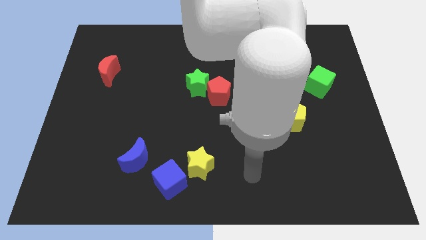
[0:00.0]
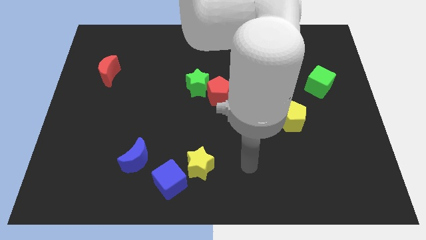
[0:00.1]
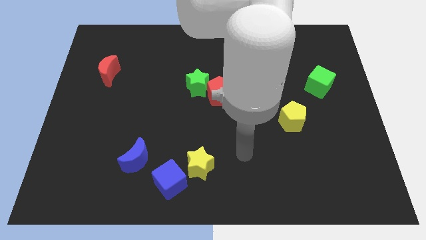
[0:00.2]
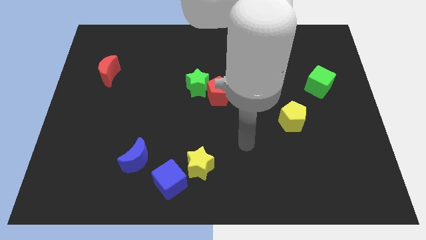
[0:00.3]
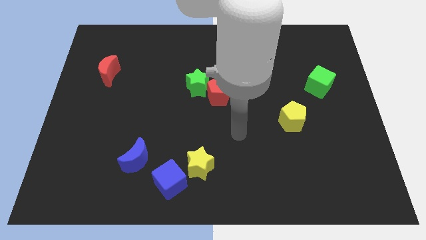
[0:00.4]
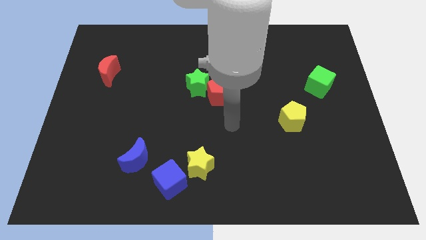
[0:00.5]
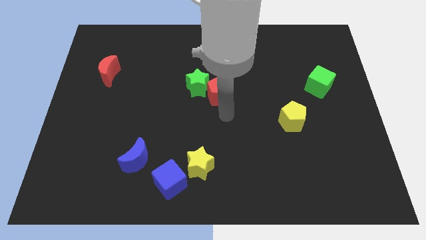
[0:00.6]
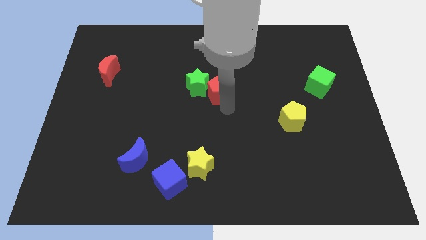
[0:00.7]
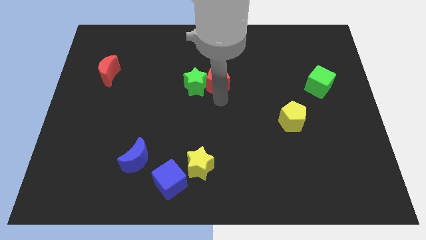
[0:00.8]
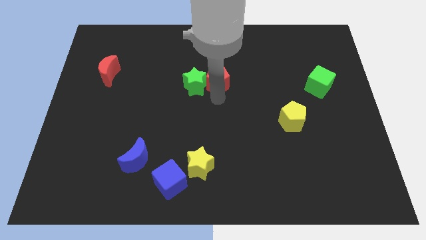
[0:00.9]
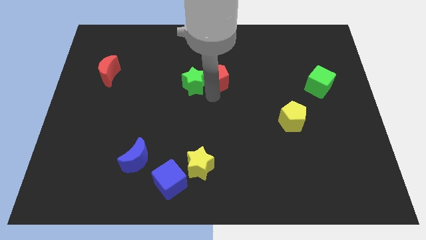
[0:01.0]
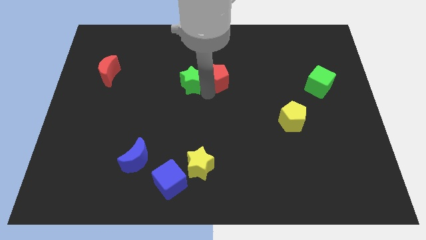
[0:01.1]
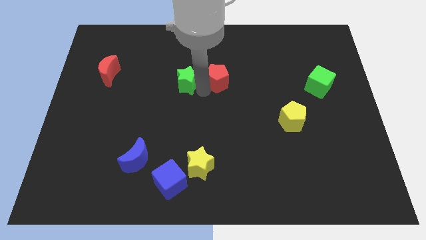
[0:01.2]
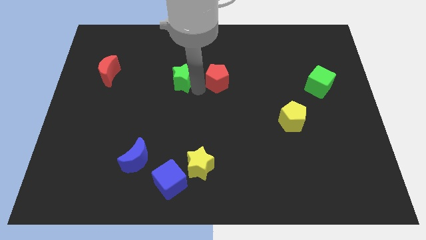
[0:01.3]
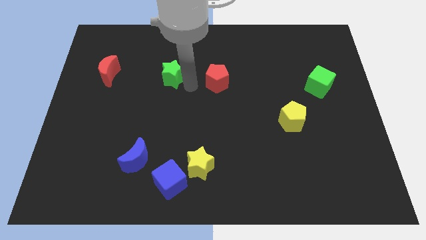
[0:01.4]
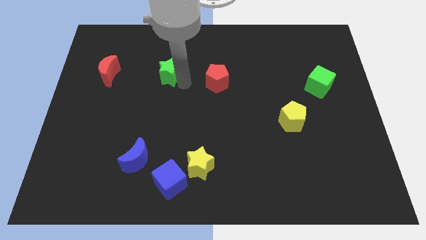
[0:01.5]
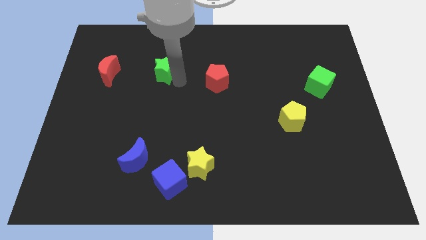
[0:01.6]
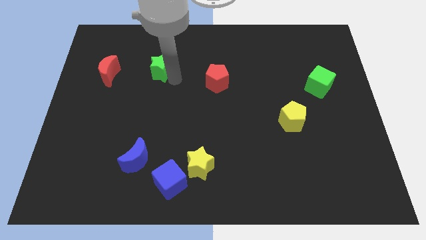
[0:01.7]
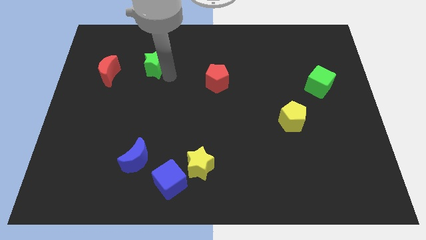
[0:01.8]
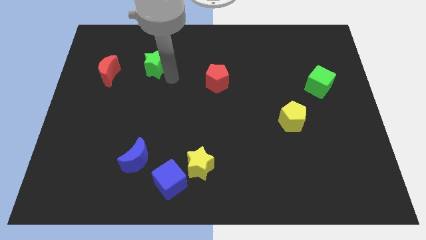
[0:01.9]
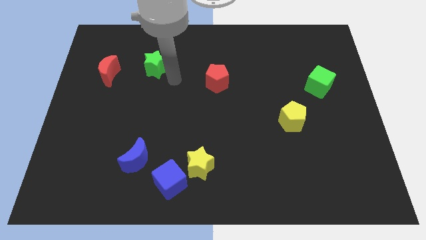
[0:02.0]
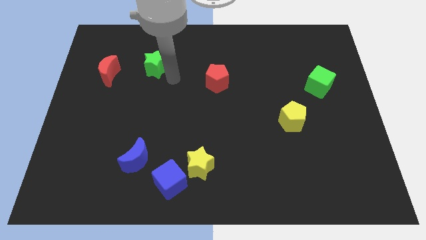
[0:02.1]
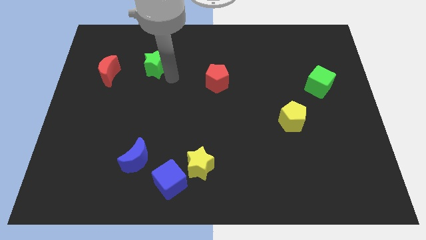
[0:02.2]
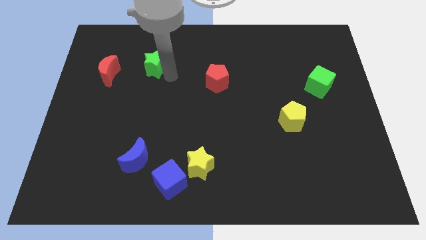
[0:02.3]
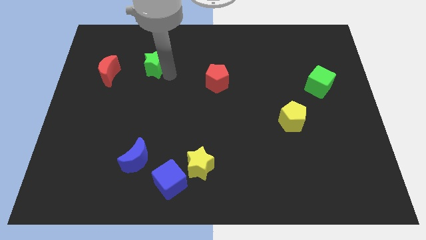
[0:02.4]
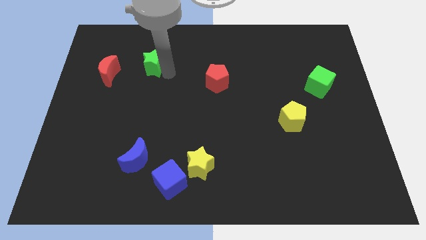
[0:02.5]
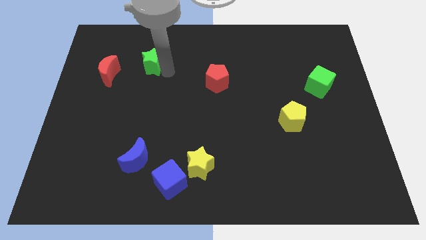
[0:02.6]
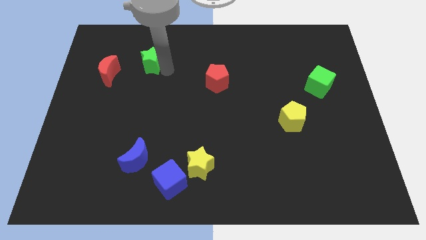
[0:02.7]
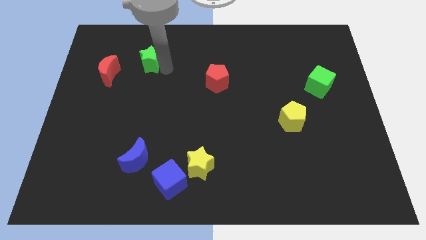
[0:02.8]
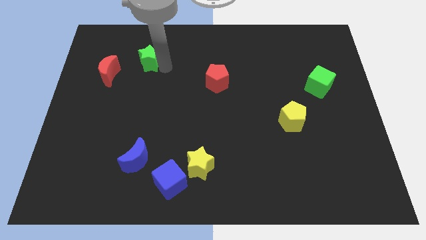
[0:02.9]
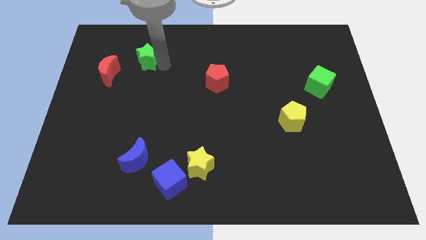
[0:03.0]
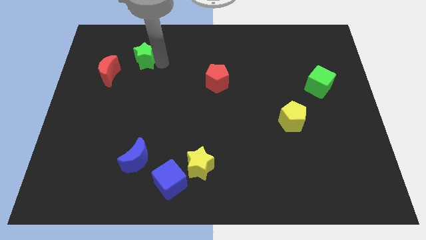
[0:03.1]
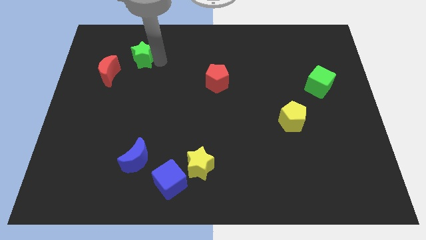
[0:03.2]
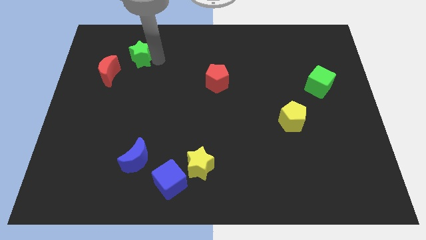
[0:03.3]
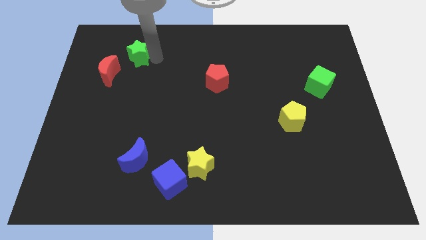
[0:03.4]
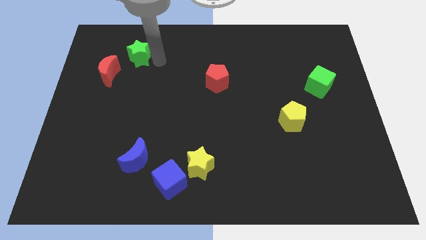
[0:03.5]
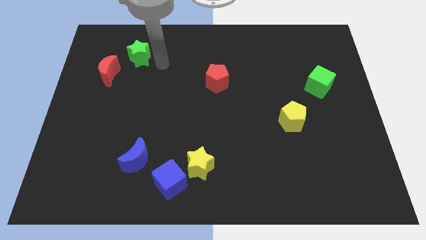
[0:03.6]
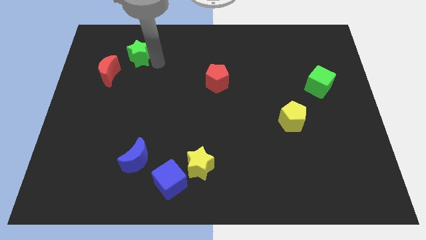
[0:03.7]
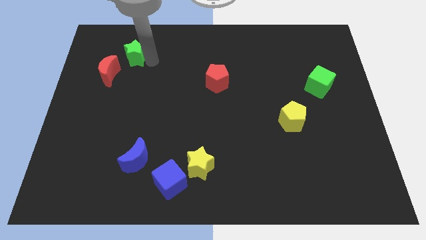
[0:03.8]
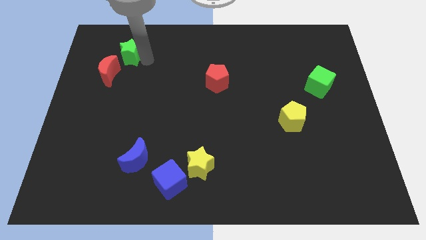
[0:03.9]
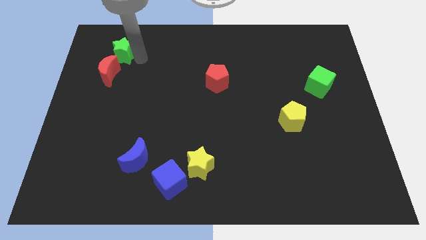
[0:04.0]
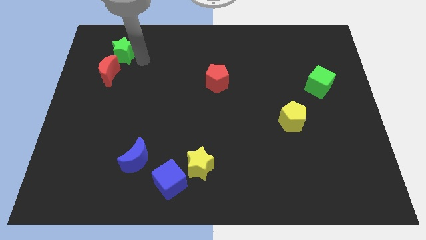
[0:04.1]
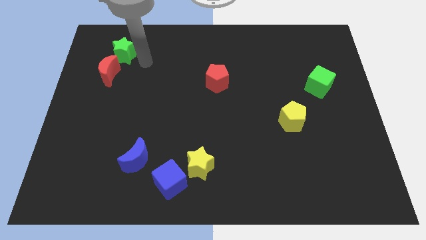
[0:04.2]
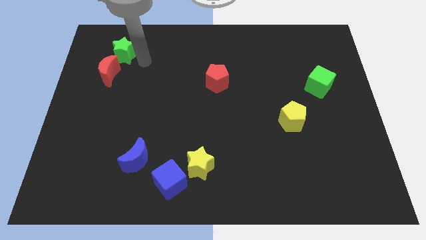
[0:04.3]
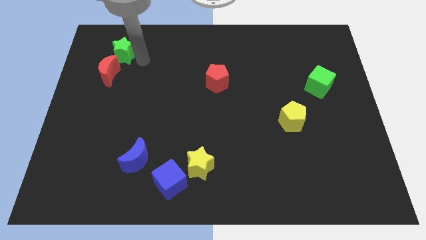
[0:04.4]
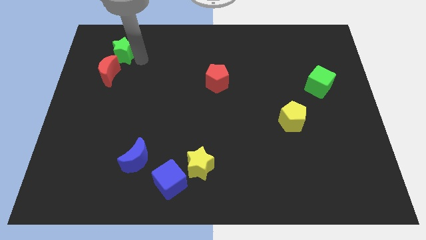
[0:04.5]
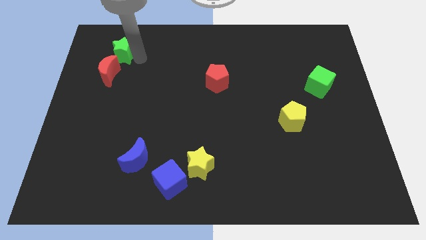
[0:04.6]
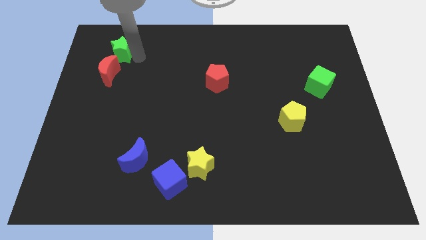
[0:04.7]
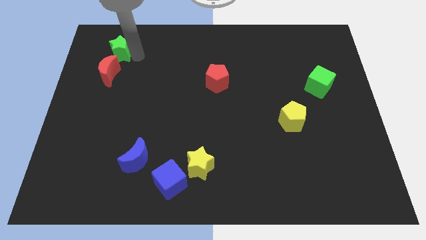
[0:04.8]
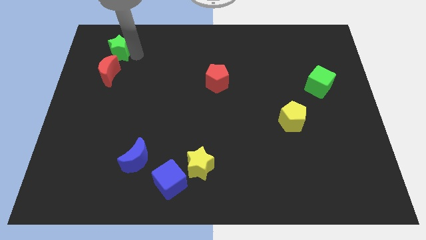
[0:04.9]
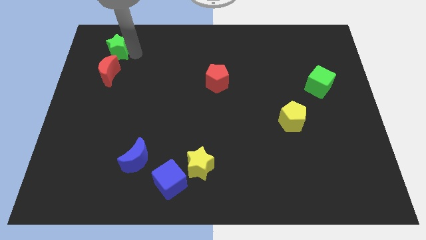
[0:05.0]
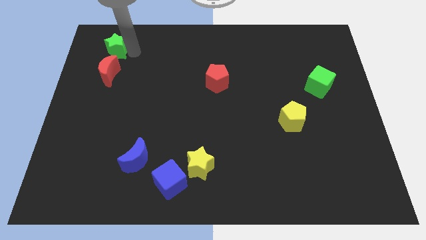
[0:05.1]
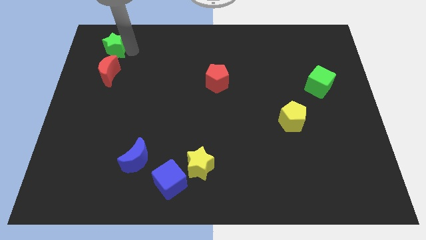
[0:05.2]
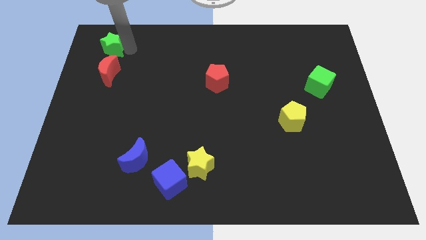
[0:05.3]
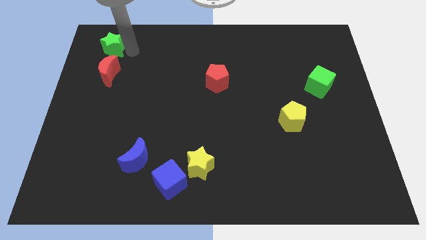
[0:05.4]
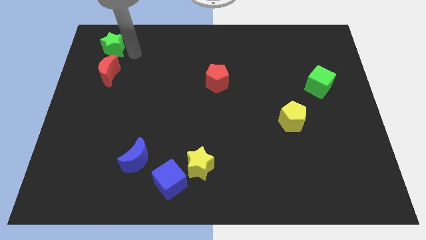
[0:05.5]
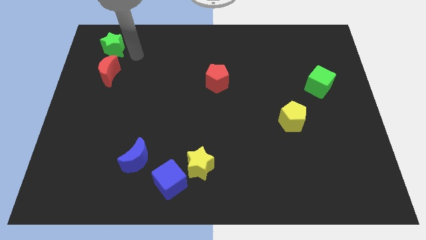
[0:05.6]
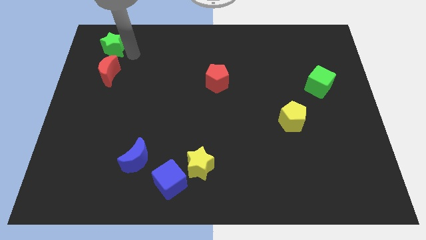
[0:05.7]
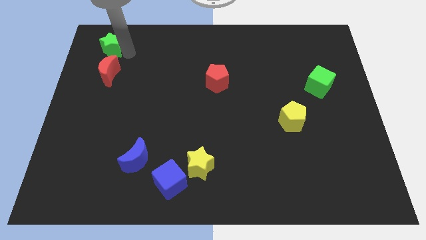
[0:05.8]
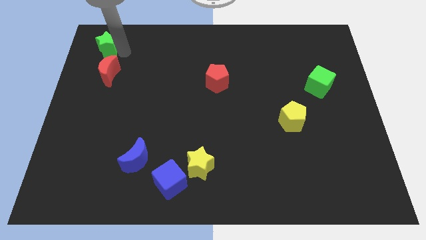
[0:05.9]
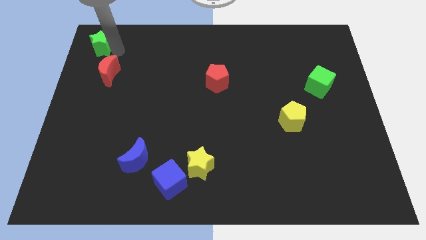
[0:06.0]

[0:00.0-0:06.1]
move the green star to the top left corner

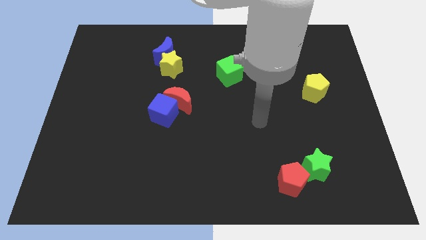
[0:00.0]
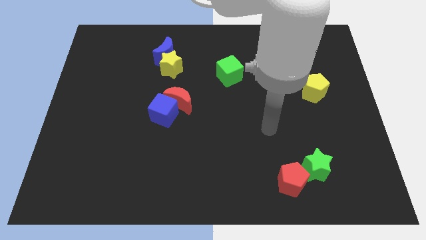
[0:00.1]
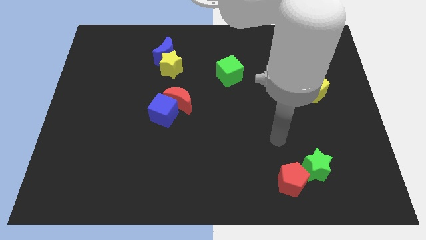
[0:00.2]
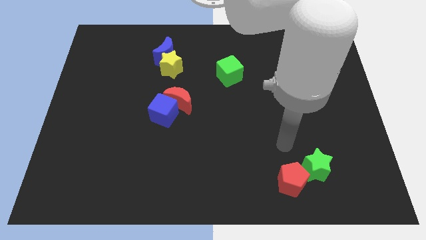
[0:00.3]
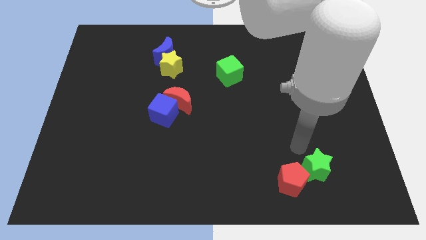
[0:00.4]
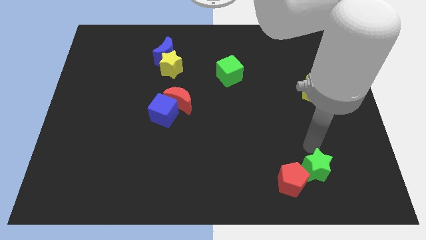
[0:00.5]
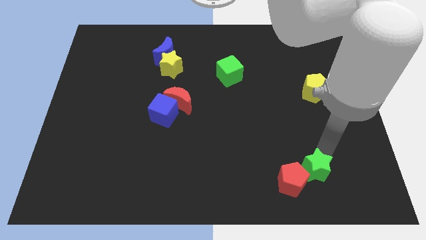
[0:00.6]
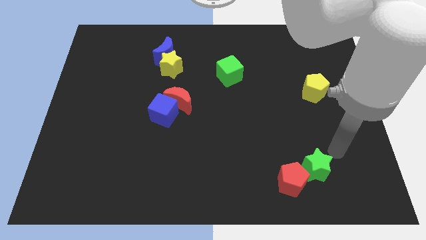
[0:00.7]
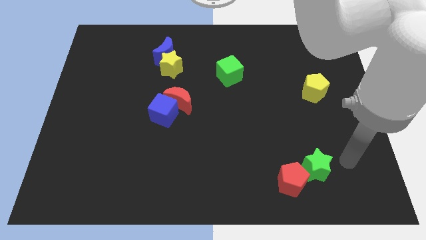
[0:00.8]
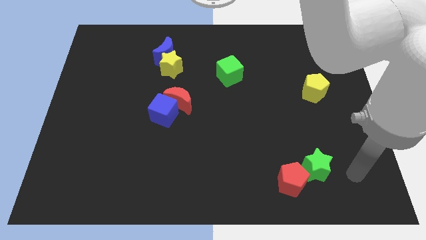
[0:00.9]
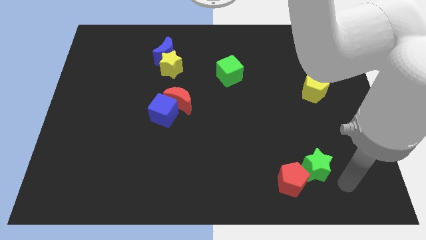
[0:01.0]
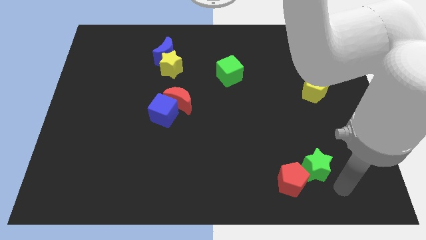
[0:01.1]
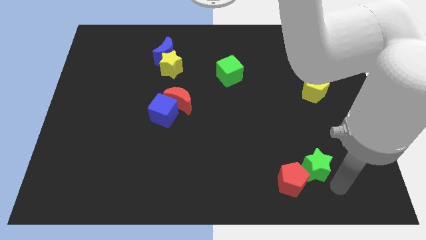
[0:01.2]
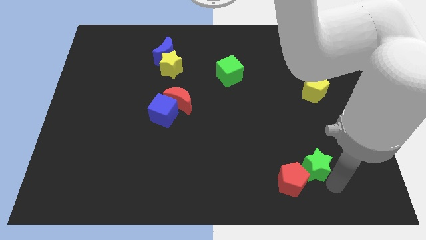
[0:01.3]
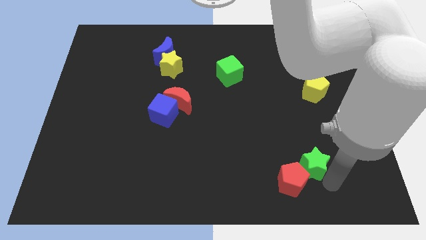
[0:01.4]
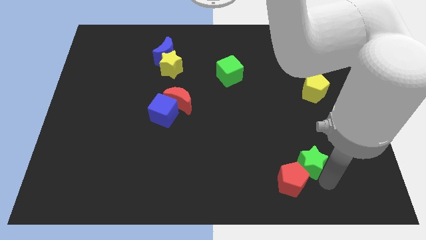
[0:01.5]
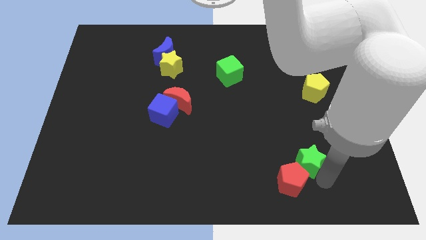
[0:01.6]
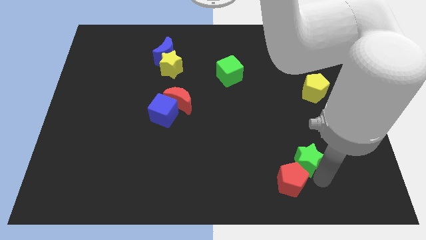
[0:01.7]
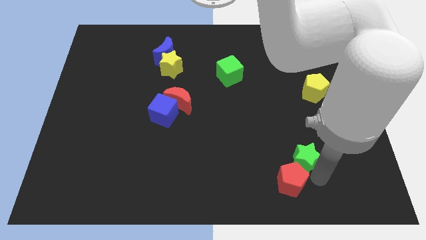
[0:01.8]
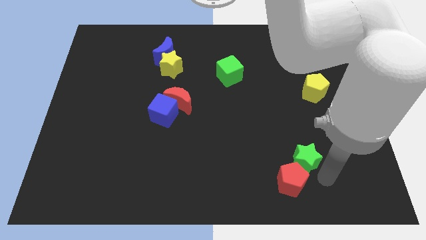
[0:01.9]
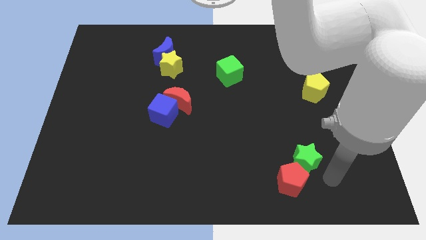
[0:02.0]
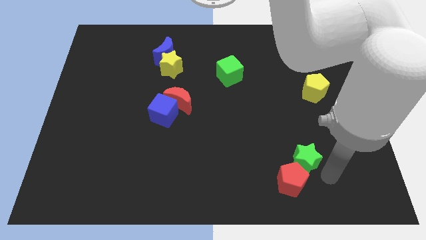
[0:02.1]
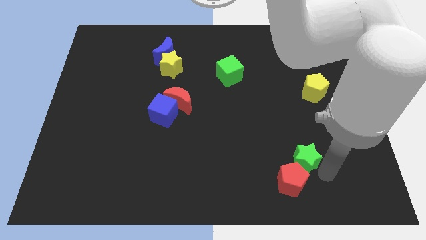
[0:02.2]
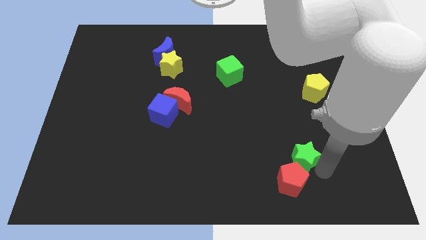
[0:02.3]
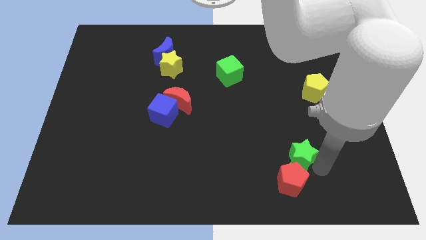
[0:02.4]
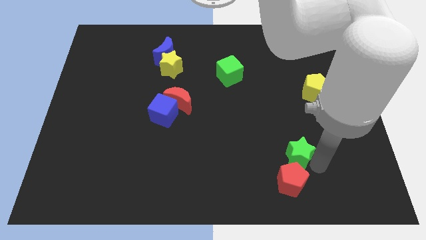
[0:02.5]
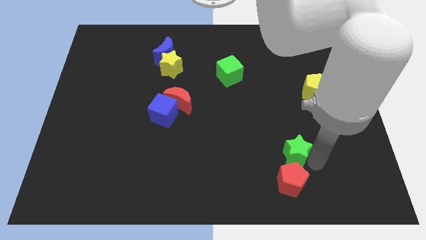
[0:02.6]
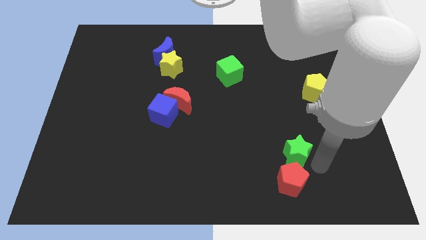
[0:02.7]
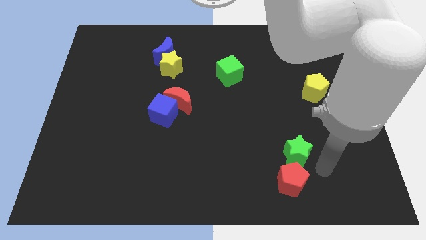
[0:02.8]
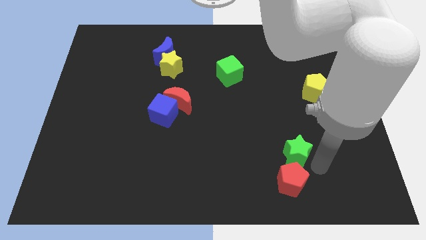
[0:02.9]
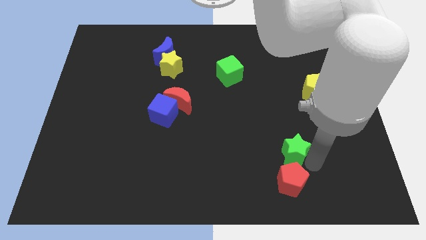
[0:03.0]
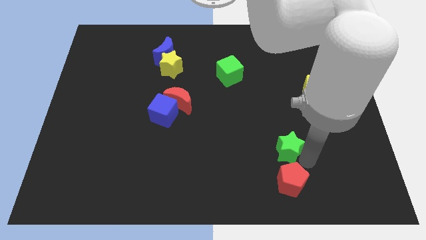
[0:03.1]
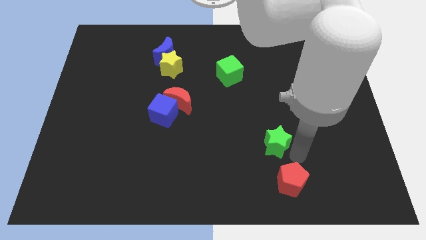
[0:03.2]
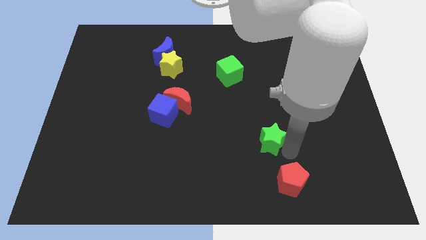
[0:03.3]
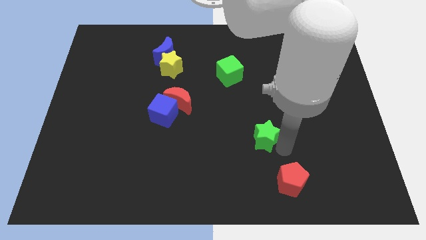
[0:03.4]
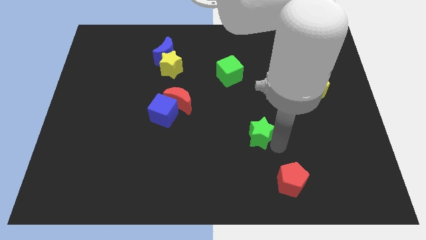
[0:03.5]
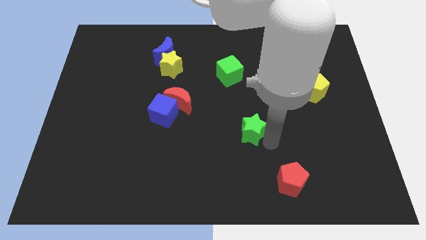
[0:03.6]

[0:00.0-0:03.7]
push the green star to the middle of the board
